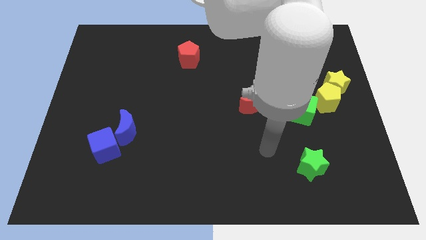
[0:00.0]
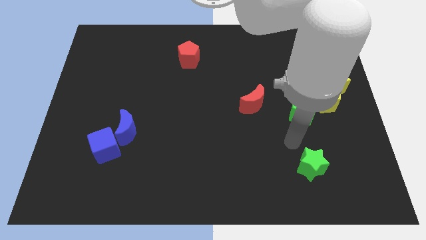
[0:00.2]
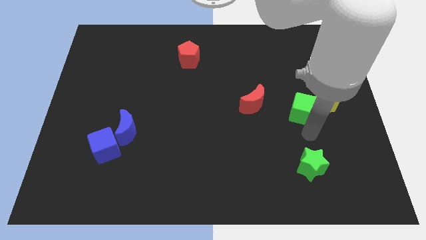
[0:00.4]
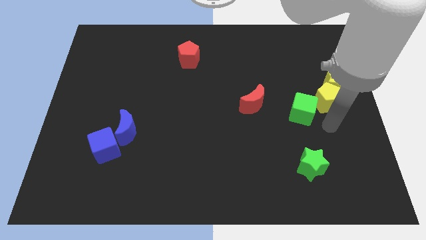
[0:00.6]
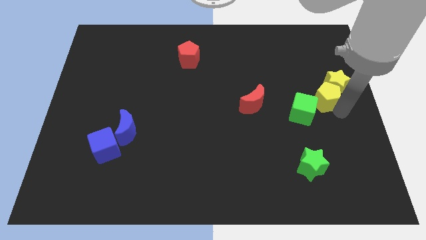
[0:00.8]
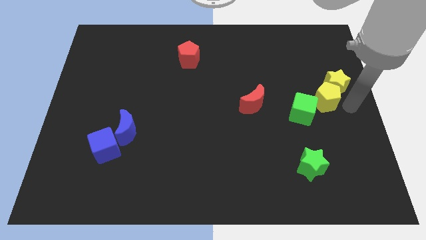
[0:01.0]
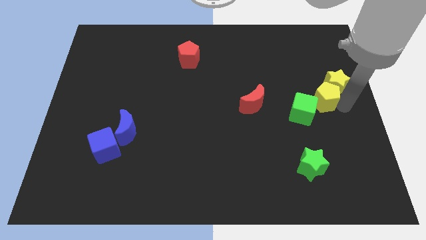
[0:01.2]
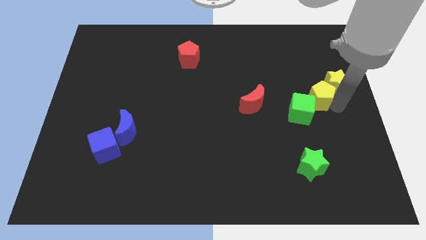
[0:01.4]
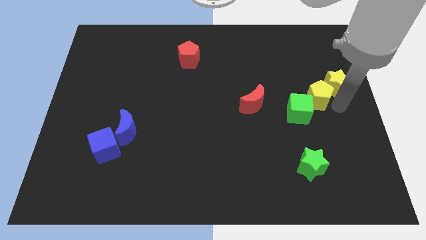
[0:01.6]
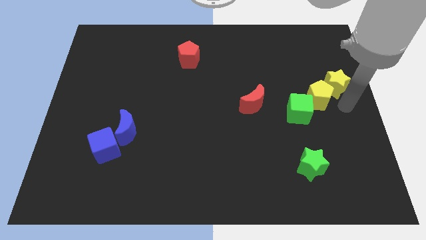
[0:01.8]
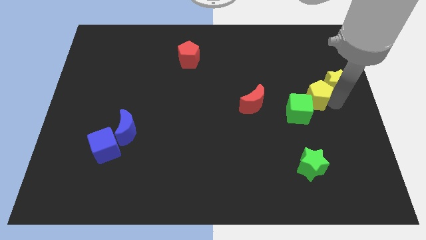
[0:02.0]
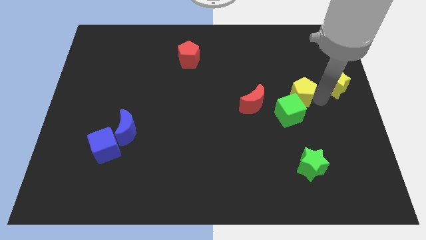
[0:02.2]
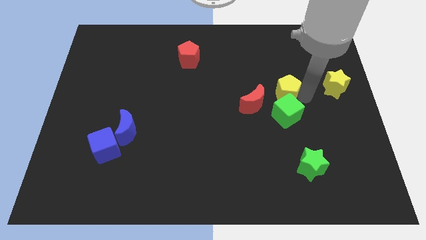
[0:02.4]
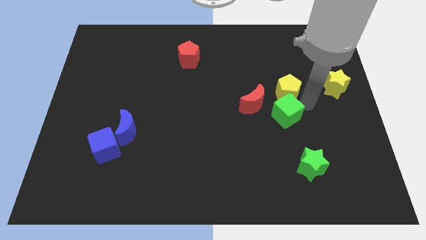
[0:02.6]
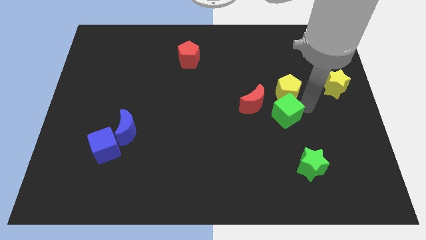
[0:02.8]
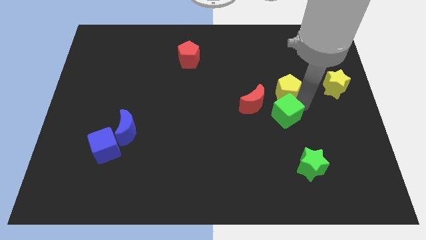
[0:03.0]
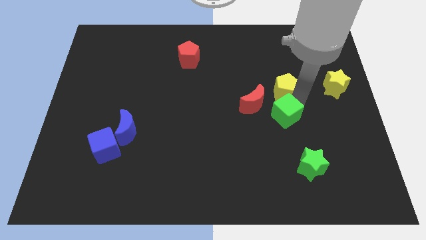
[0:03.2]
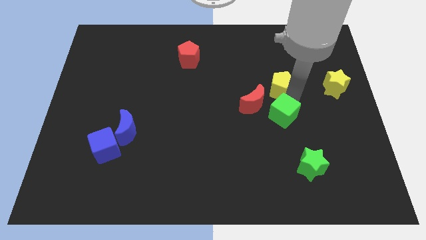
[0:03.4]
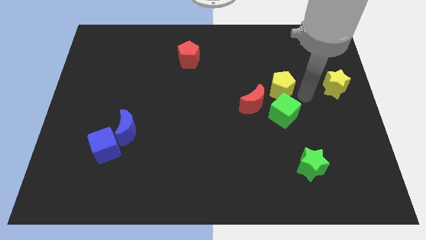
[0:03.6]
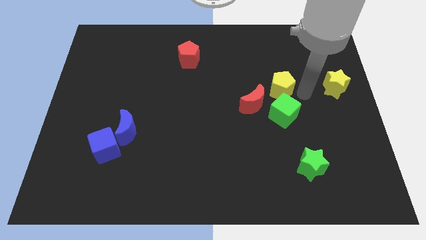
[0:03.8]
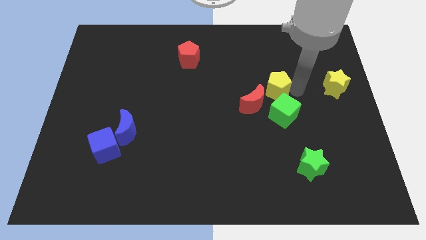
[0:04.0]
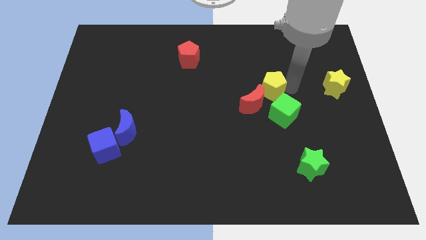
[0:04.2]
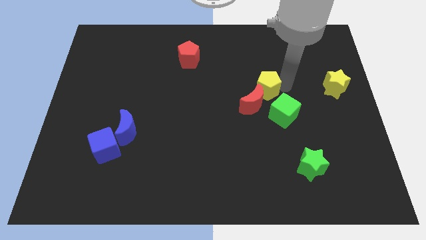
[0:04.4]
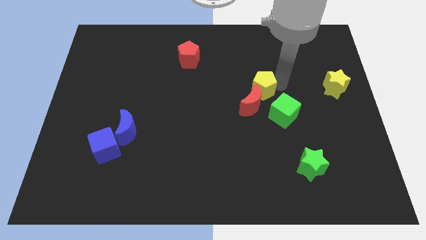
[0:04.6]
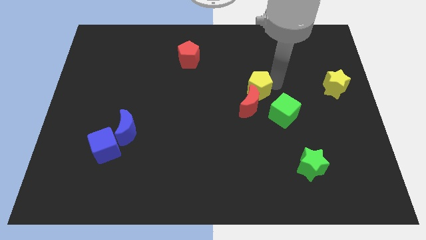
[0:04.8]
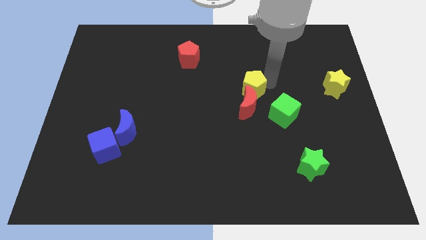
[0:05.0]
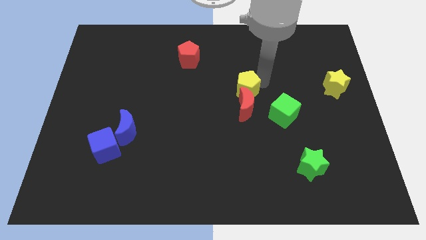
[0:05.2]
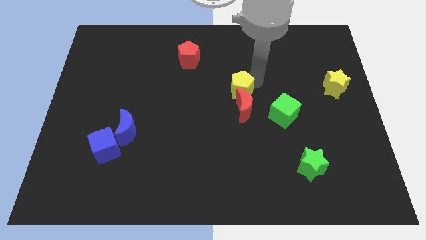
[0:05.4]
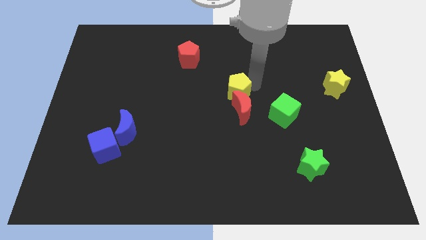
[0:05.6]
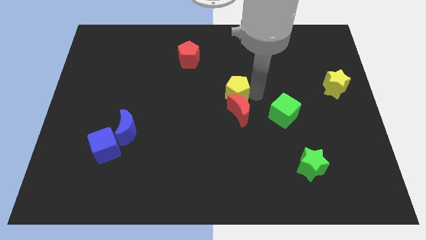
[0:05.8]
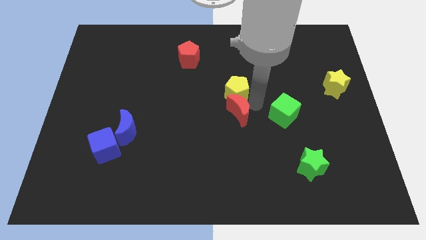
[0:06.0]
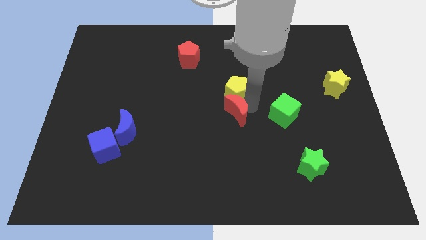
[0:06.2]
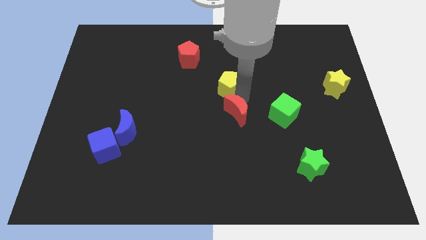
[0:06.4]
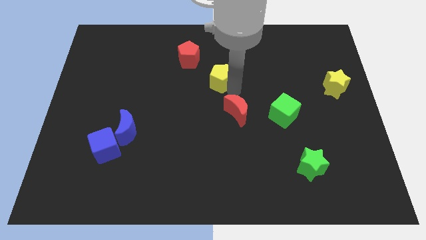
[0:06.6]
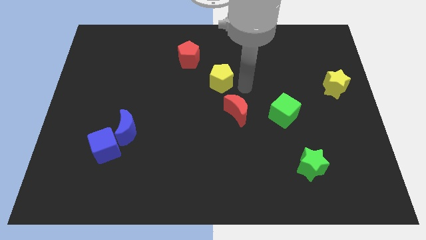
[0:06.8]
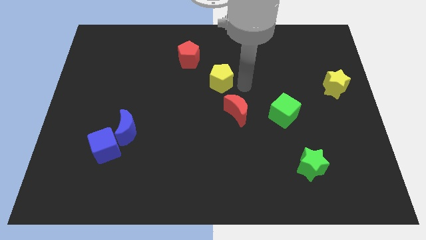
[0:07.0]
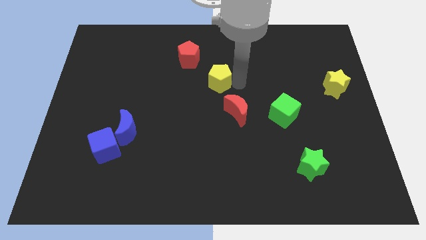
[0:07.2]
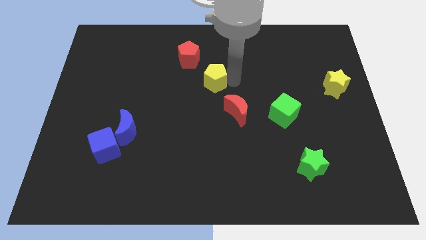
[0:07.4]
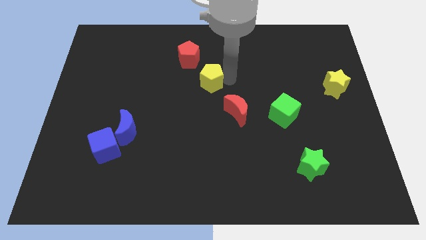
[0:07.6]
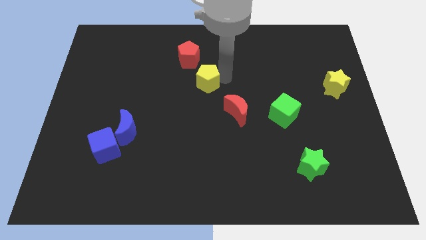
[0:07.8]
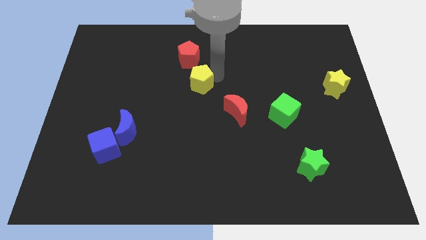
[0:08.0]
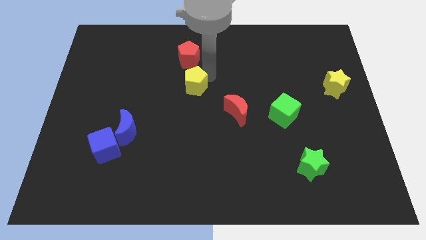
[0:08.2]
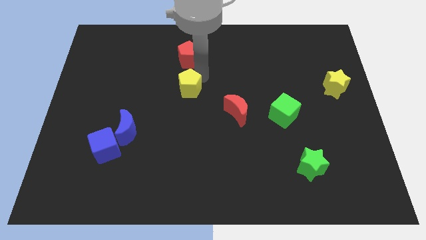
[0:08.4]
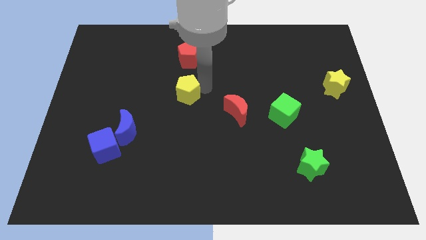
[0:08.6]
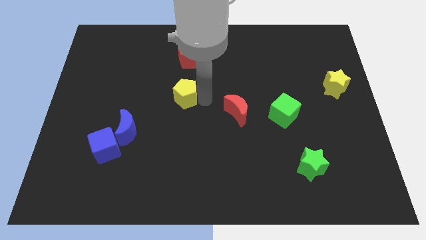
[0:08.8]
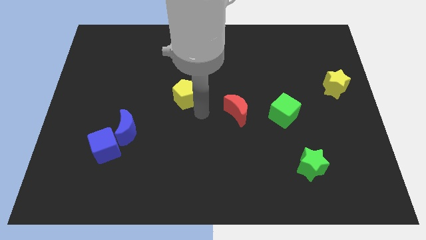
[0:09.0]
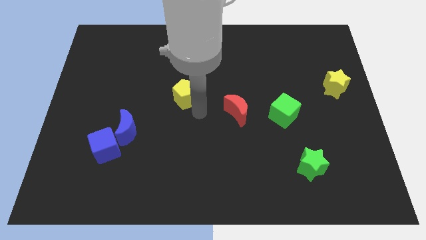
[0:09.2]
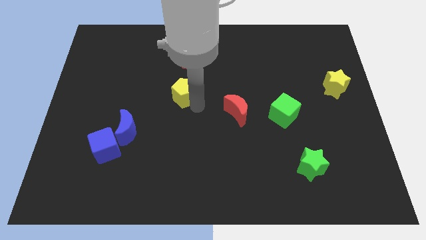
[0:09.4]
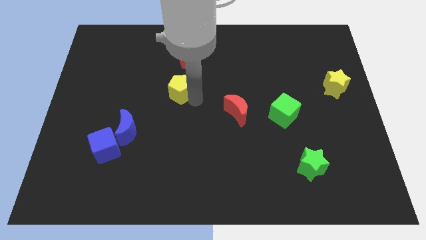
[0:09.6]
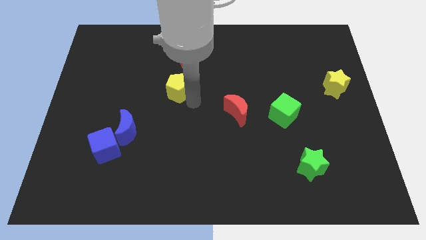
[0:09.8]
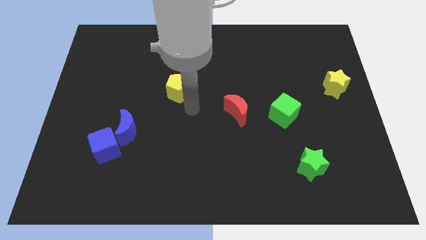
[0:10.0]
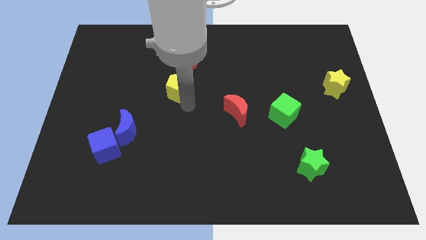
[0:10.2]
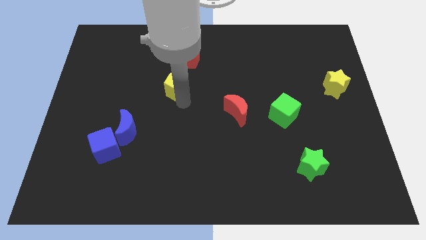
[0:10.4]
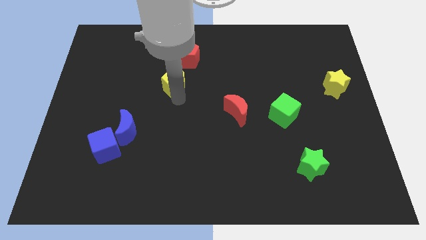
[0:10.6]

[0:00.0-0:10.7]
slide the yellow pentagon to the bottom left of the red pentagon

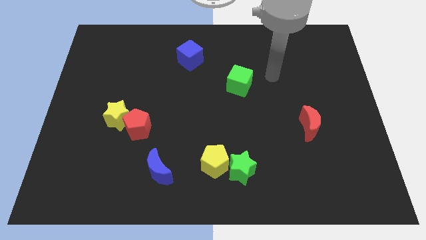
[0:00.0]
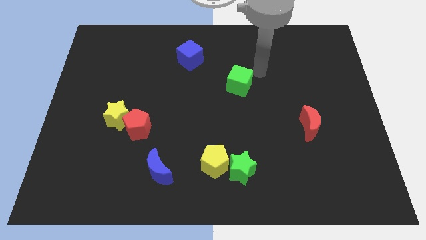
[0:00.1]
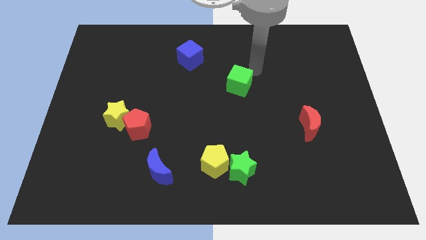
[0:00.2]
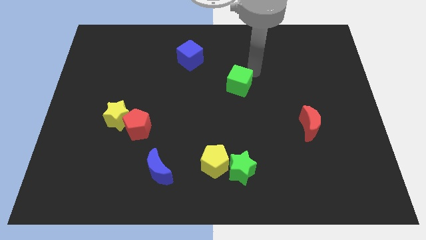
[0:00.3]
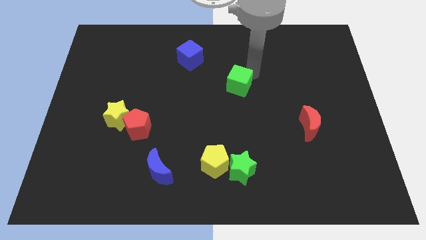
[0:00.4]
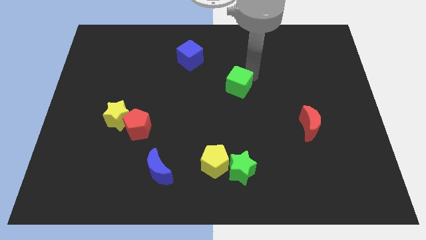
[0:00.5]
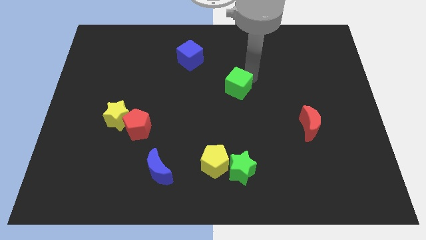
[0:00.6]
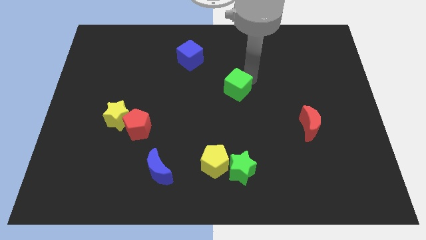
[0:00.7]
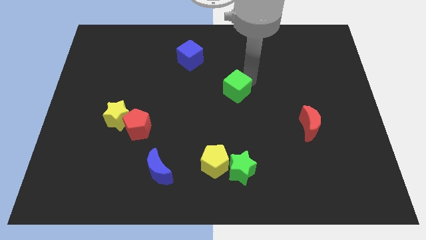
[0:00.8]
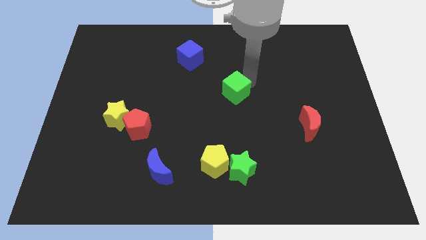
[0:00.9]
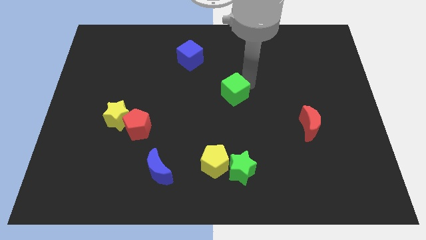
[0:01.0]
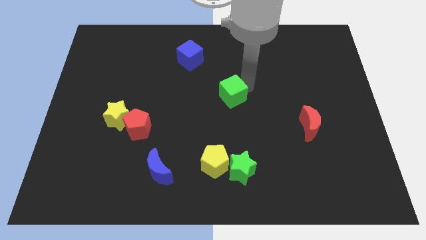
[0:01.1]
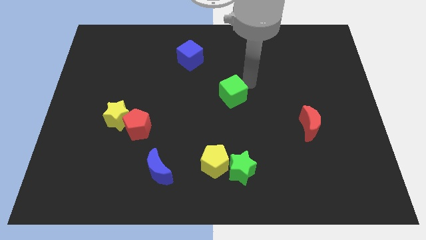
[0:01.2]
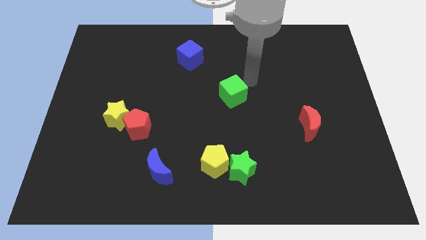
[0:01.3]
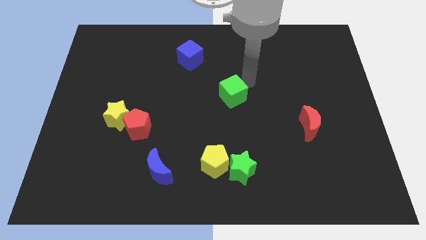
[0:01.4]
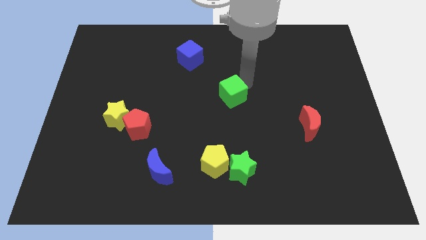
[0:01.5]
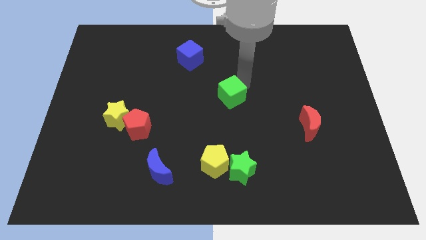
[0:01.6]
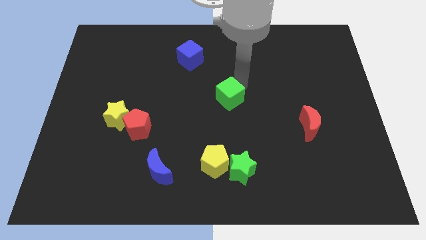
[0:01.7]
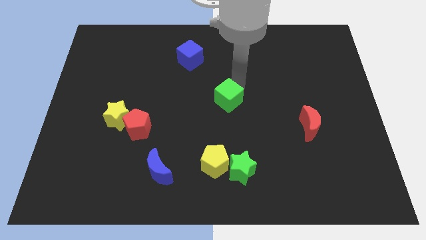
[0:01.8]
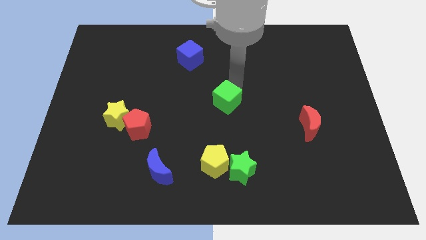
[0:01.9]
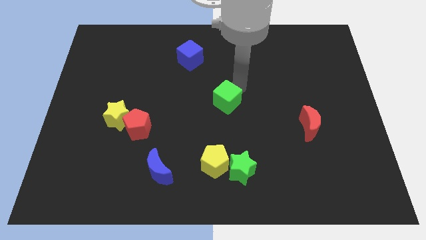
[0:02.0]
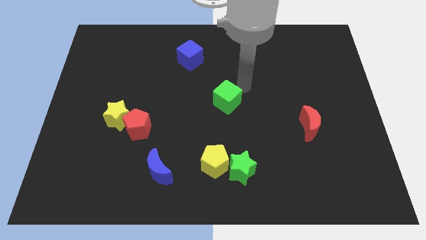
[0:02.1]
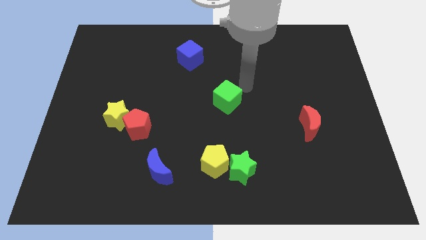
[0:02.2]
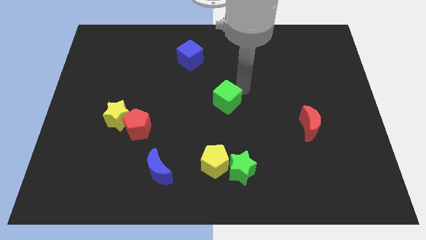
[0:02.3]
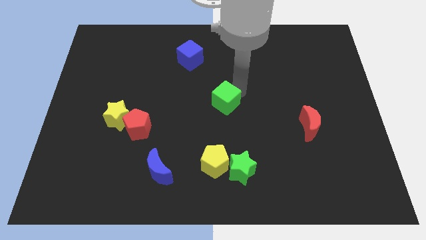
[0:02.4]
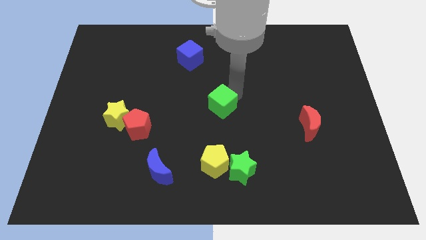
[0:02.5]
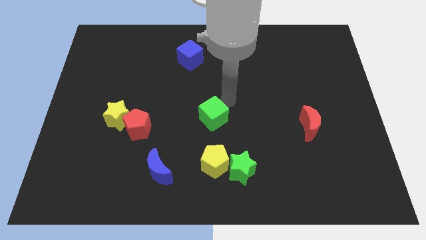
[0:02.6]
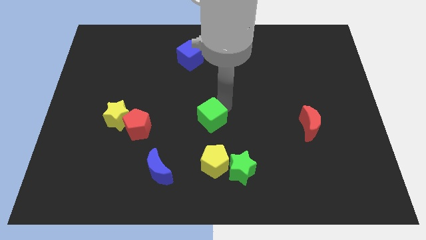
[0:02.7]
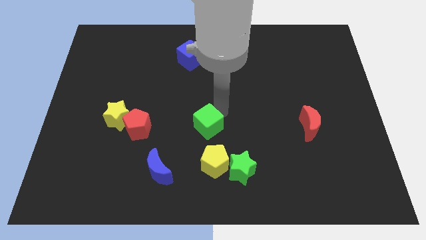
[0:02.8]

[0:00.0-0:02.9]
move the green cube just right of the red pentagon
